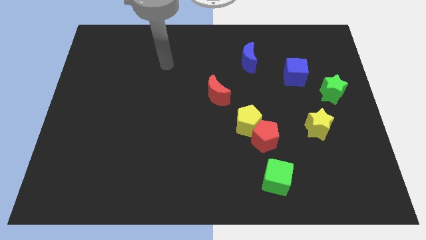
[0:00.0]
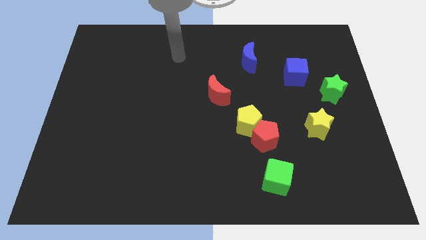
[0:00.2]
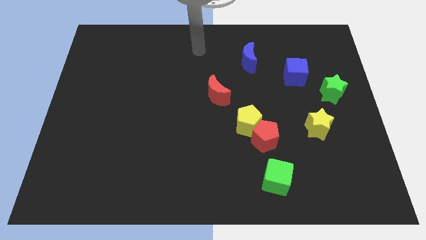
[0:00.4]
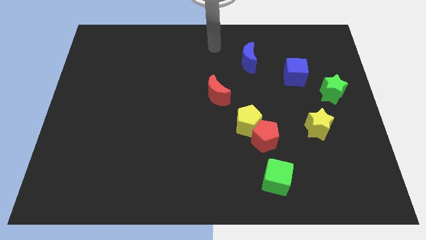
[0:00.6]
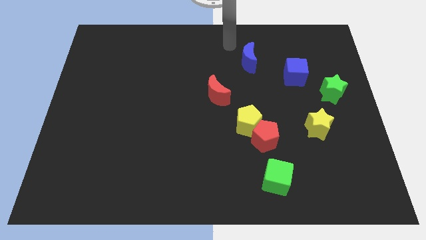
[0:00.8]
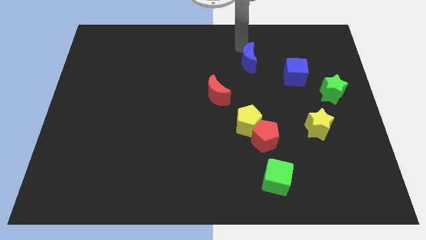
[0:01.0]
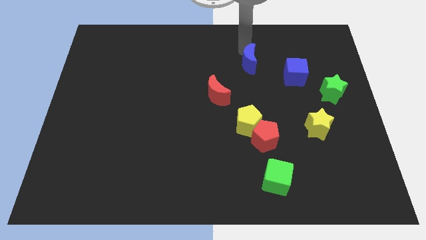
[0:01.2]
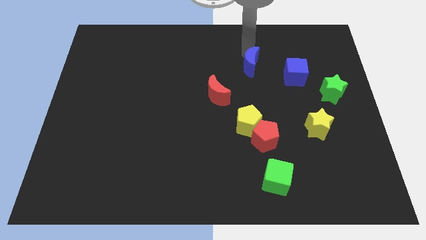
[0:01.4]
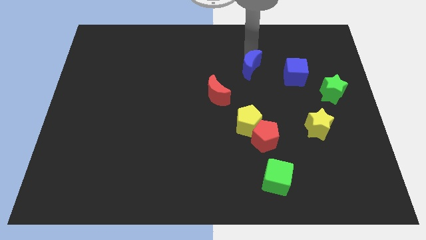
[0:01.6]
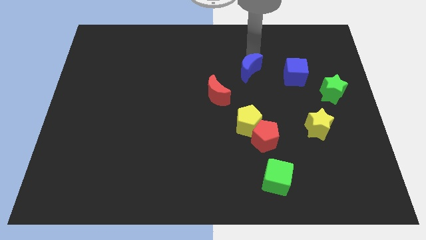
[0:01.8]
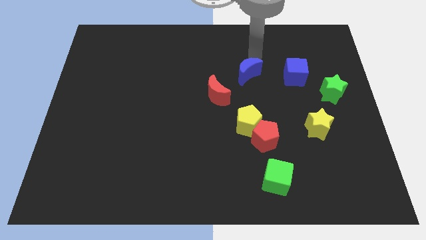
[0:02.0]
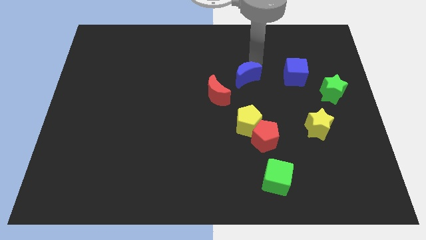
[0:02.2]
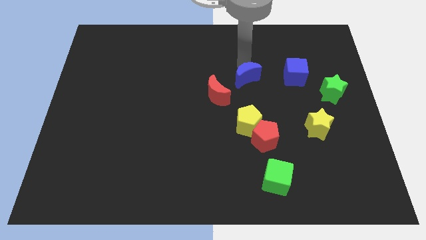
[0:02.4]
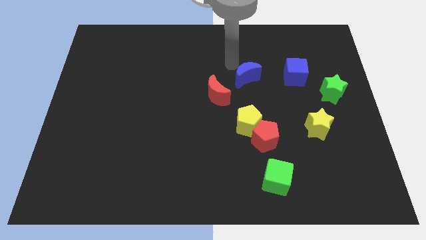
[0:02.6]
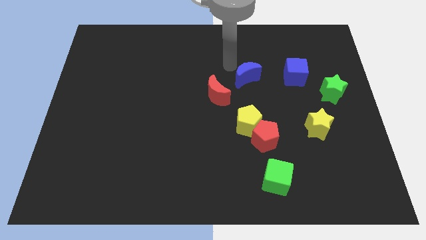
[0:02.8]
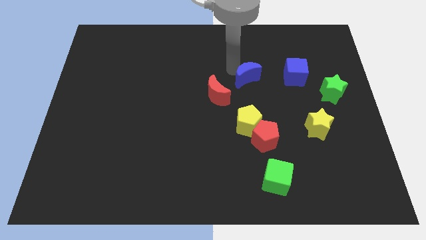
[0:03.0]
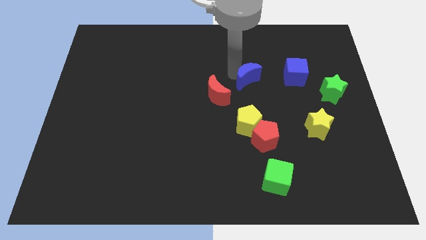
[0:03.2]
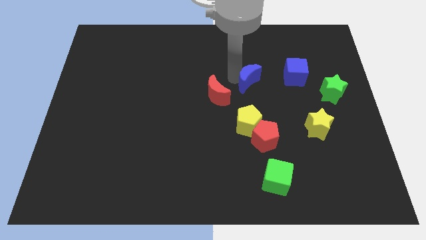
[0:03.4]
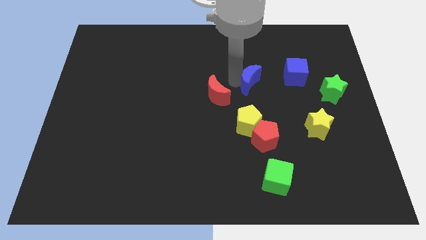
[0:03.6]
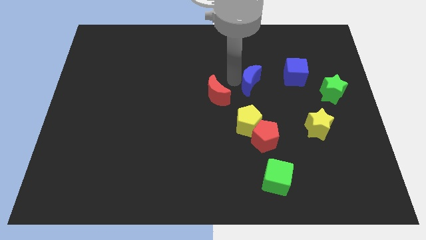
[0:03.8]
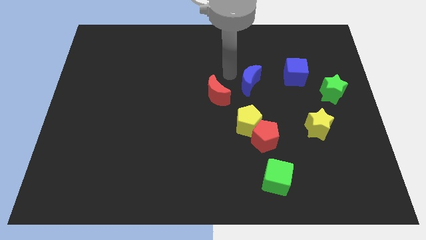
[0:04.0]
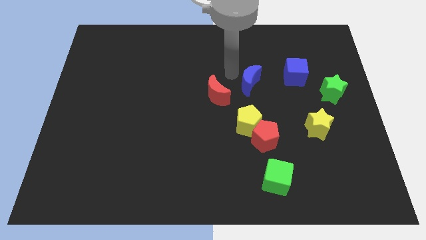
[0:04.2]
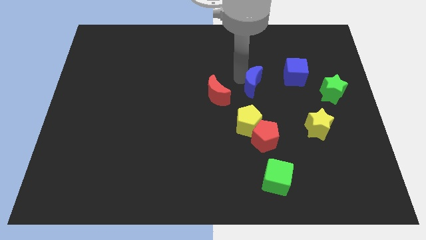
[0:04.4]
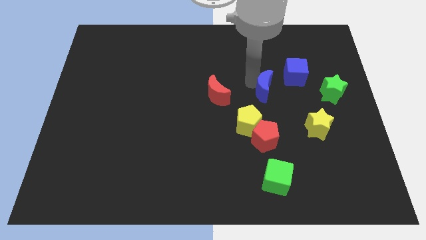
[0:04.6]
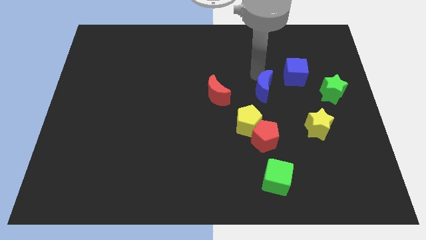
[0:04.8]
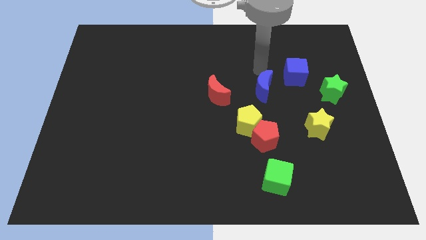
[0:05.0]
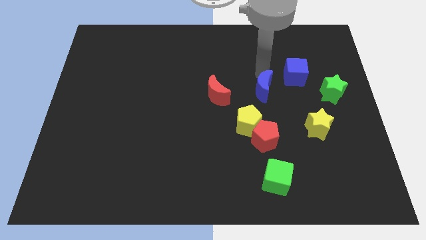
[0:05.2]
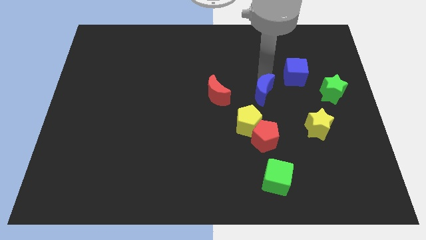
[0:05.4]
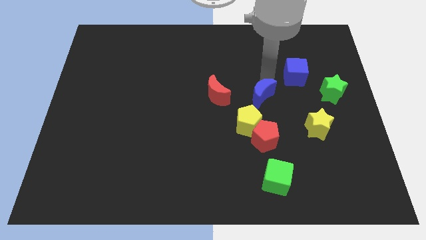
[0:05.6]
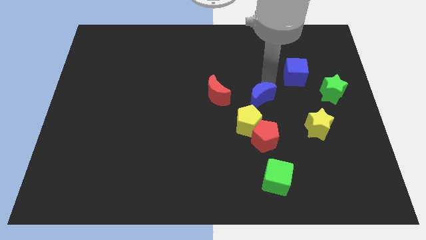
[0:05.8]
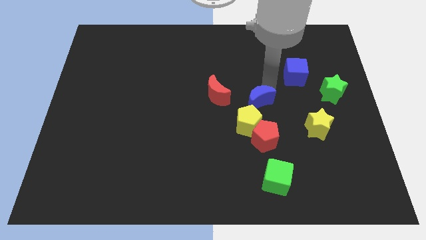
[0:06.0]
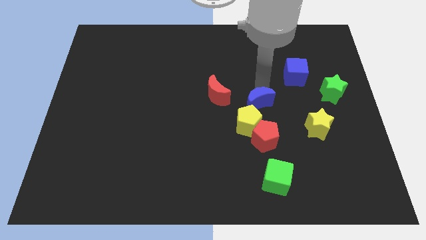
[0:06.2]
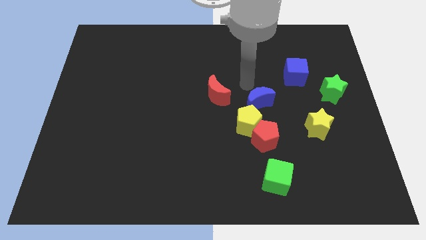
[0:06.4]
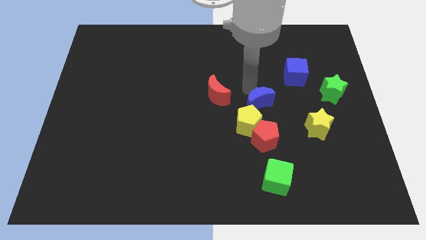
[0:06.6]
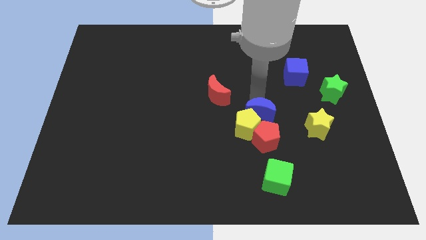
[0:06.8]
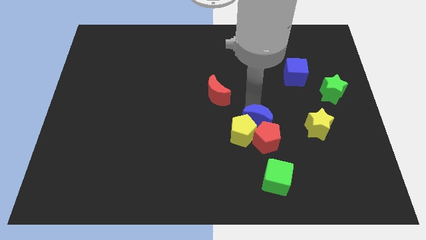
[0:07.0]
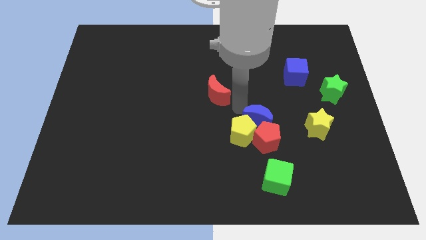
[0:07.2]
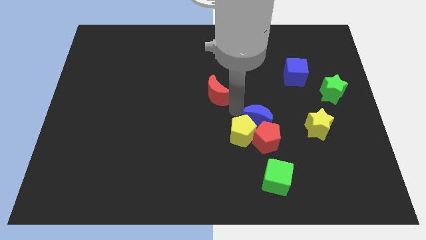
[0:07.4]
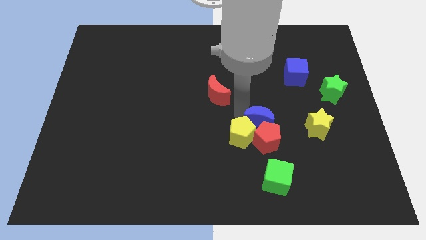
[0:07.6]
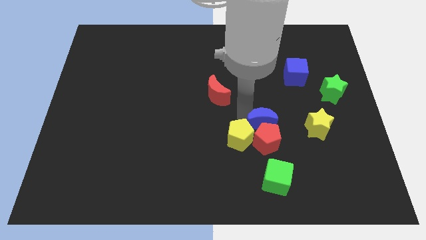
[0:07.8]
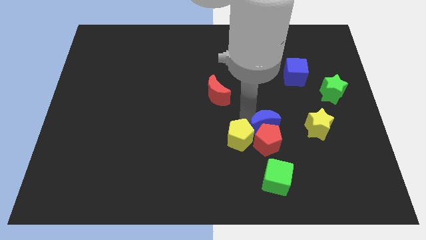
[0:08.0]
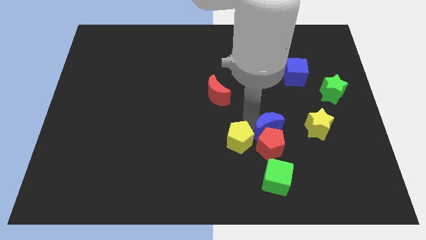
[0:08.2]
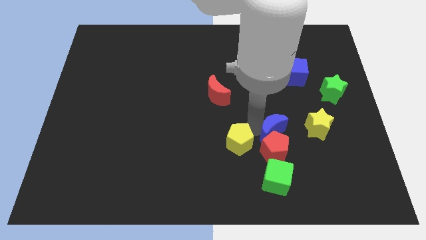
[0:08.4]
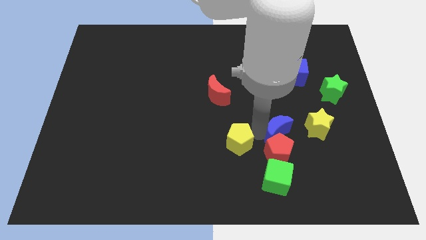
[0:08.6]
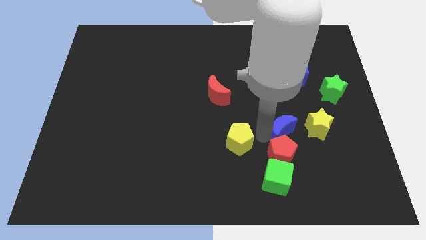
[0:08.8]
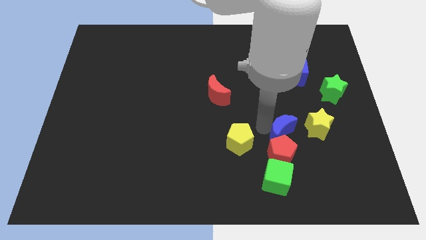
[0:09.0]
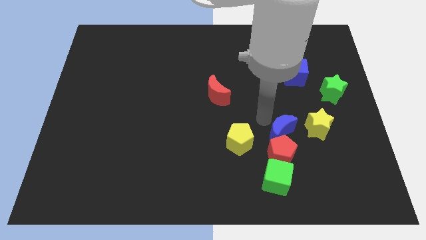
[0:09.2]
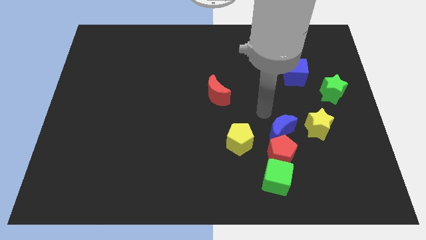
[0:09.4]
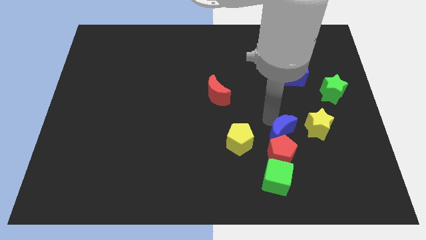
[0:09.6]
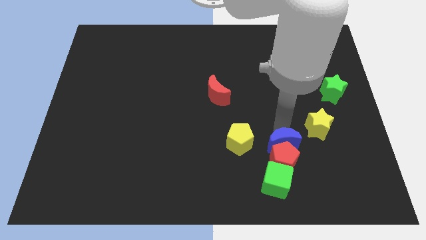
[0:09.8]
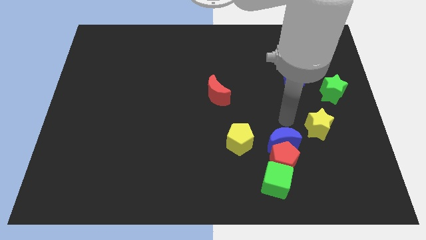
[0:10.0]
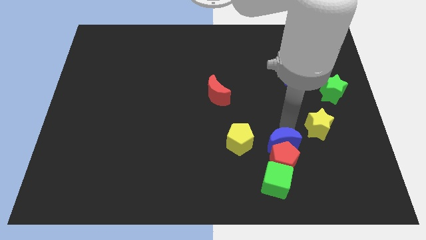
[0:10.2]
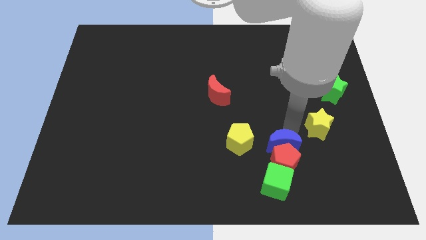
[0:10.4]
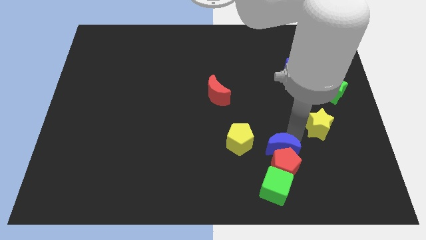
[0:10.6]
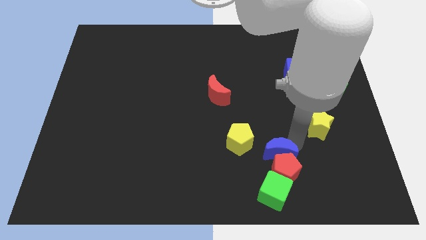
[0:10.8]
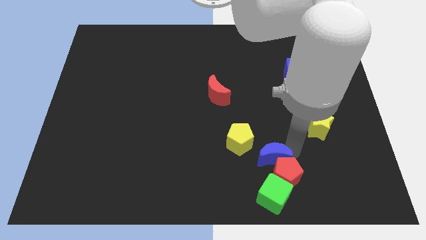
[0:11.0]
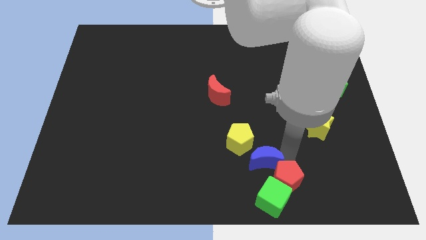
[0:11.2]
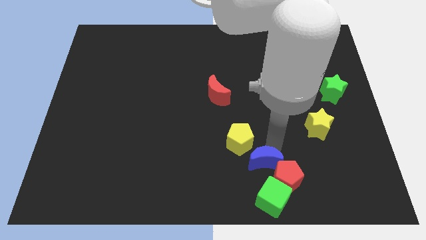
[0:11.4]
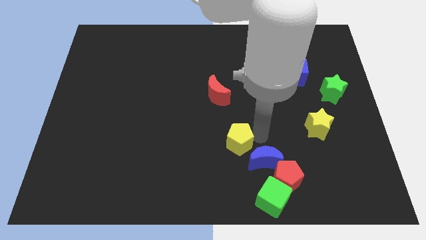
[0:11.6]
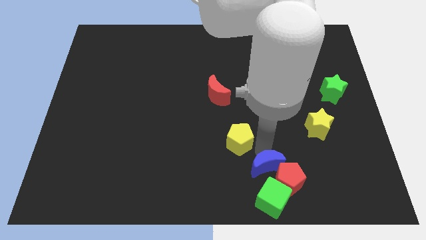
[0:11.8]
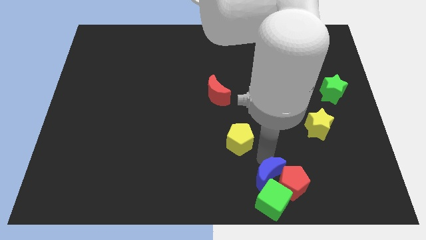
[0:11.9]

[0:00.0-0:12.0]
put the blue moon next to the green cube

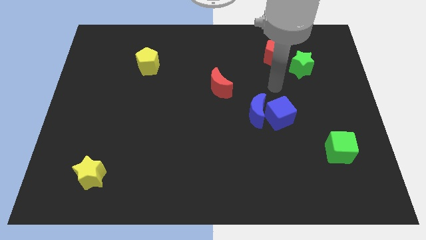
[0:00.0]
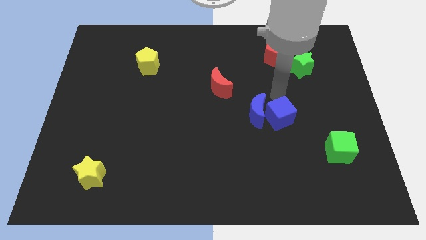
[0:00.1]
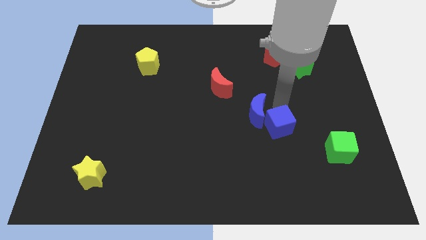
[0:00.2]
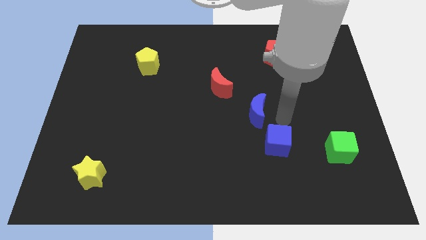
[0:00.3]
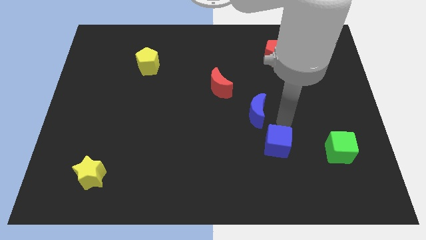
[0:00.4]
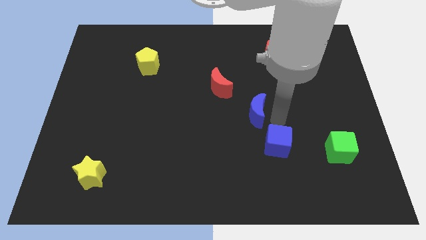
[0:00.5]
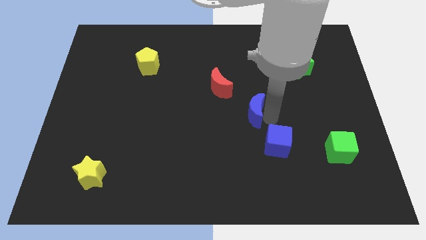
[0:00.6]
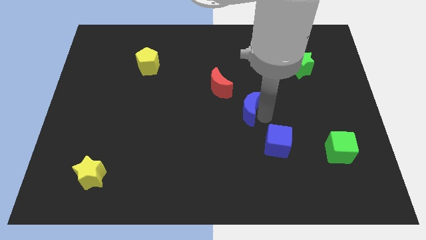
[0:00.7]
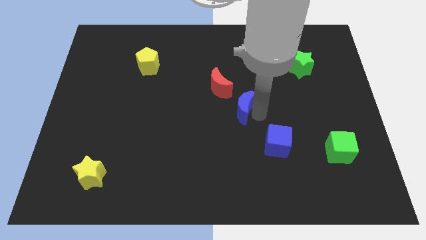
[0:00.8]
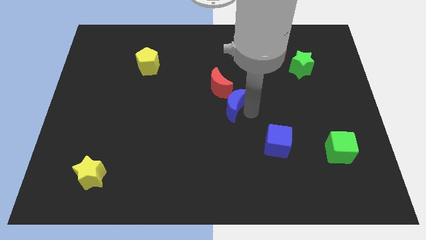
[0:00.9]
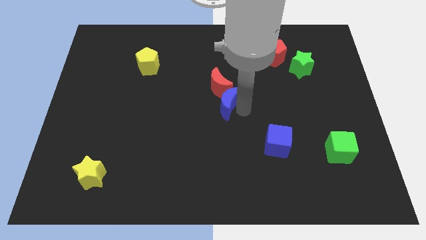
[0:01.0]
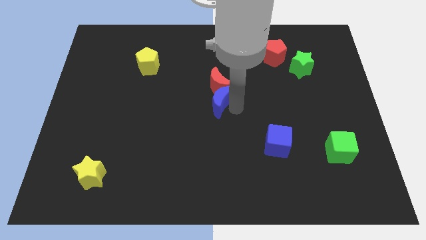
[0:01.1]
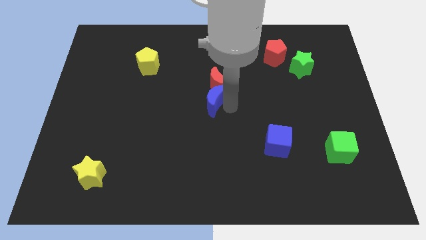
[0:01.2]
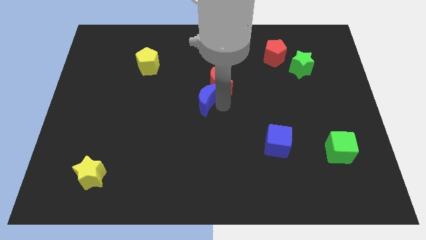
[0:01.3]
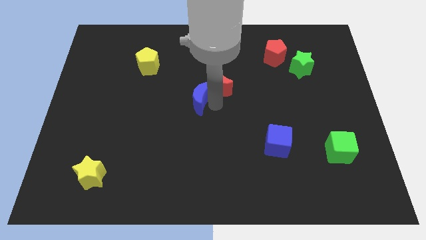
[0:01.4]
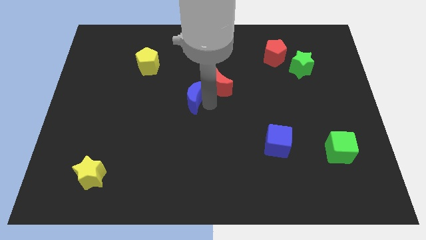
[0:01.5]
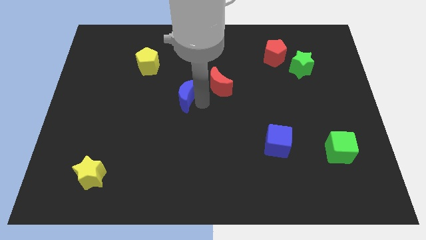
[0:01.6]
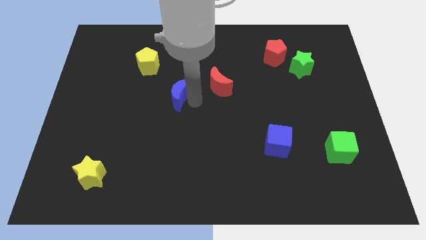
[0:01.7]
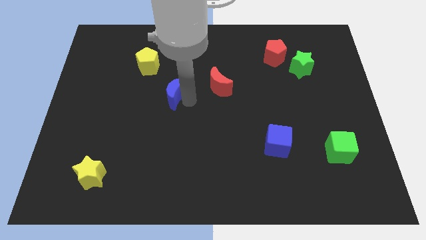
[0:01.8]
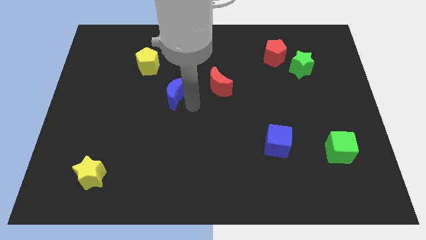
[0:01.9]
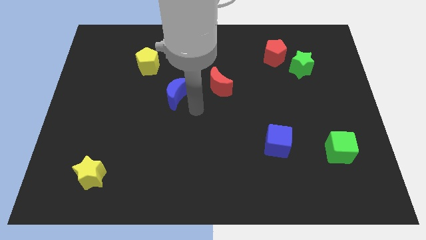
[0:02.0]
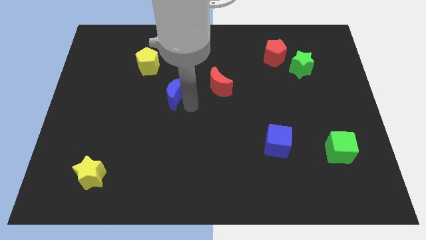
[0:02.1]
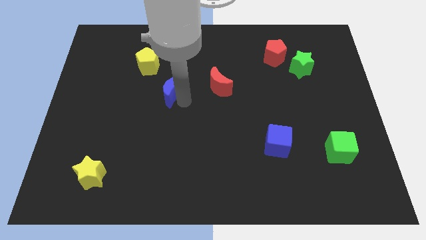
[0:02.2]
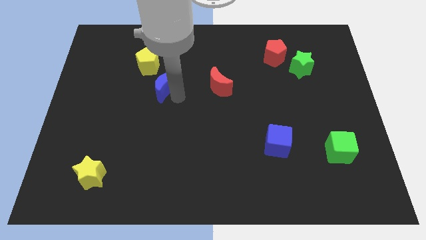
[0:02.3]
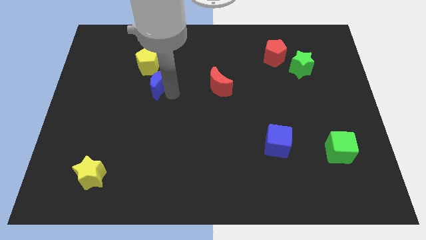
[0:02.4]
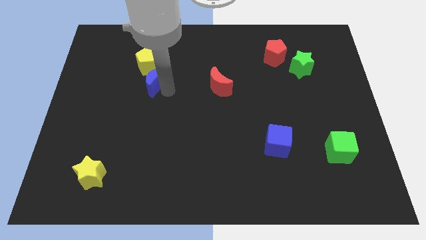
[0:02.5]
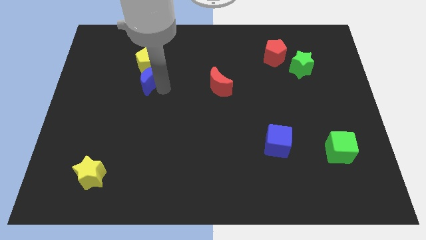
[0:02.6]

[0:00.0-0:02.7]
put the blue moon to the yellow pentagon
